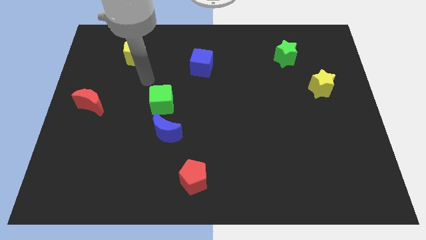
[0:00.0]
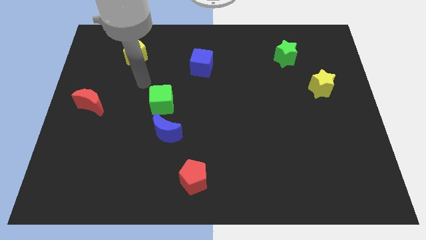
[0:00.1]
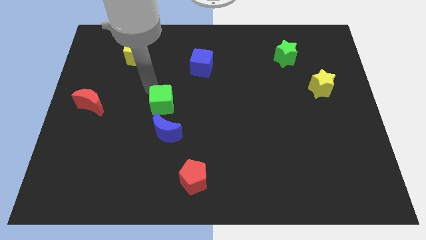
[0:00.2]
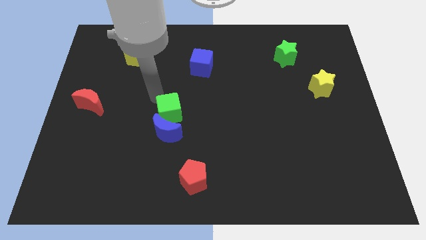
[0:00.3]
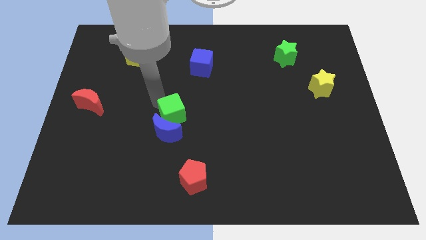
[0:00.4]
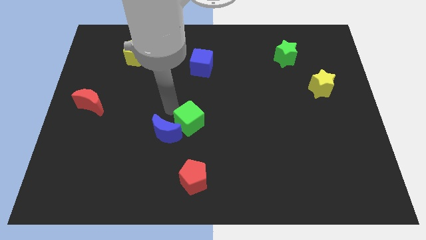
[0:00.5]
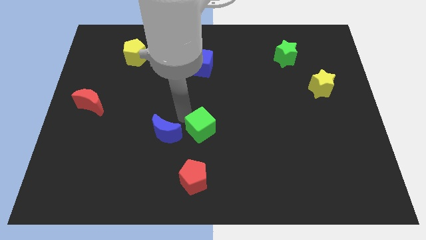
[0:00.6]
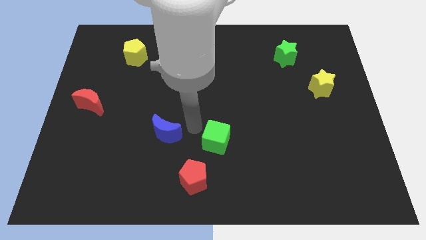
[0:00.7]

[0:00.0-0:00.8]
pull the blue moon apart from the green cube

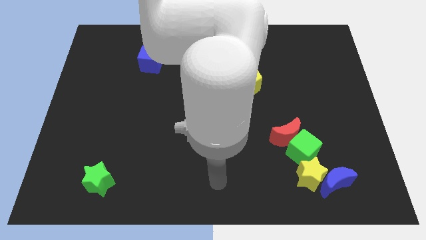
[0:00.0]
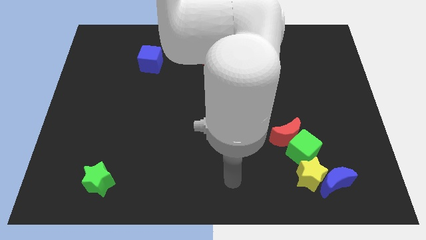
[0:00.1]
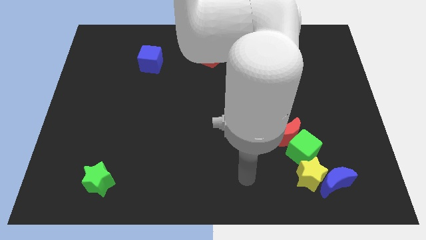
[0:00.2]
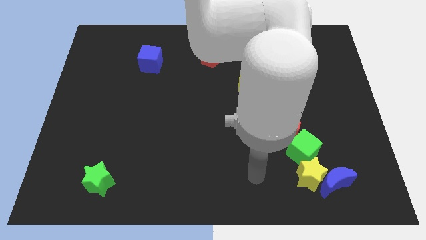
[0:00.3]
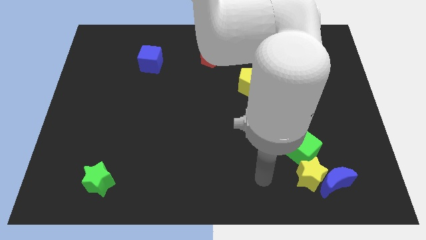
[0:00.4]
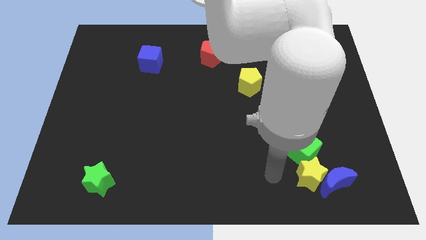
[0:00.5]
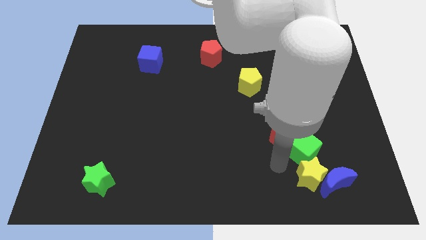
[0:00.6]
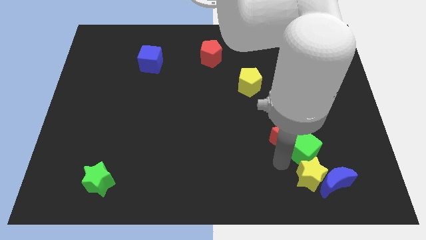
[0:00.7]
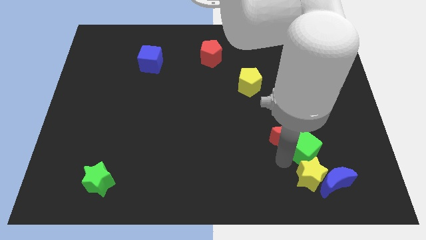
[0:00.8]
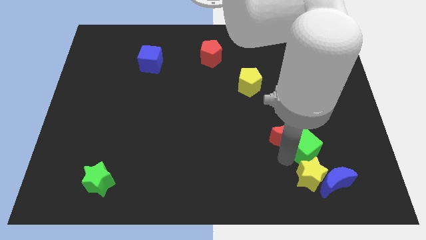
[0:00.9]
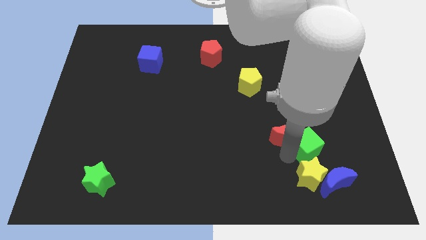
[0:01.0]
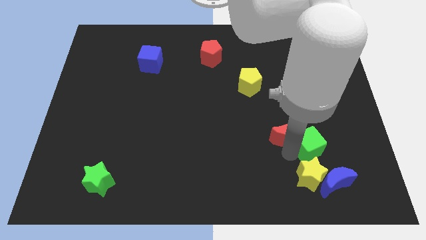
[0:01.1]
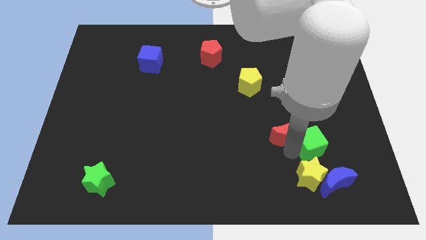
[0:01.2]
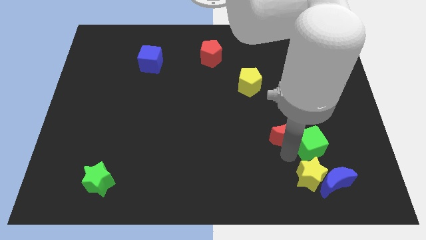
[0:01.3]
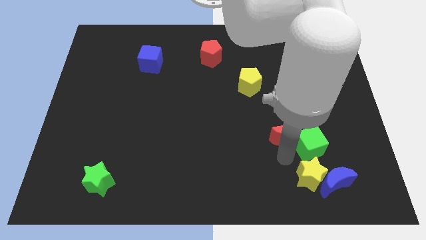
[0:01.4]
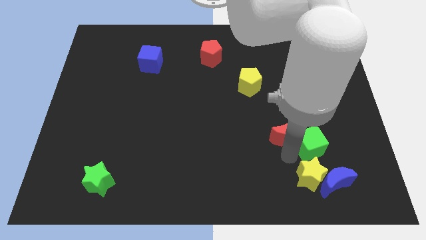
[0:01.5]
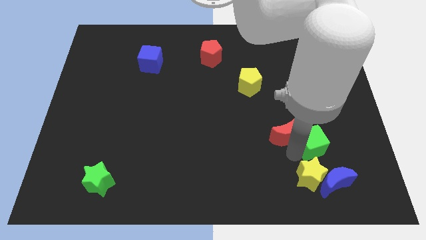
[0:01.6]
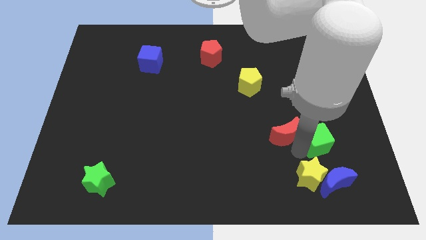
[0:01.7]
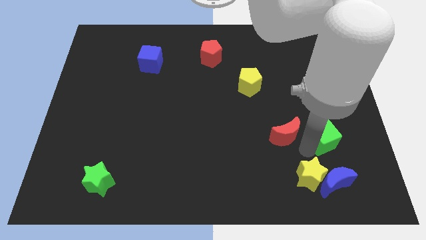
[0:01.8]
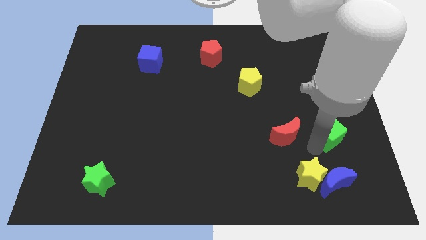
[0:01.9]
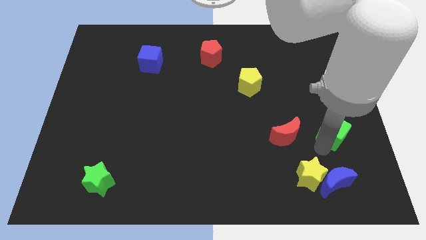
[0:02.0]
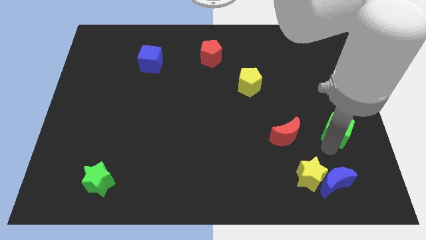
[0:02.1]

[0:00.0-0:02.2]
move the green cube away from the clump

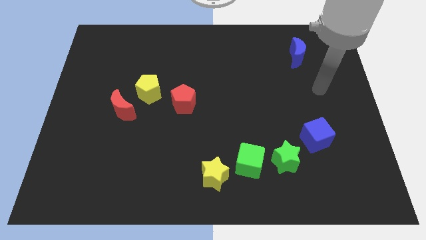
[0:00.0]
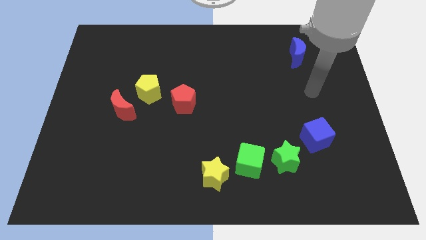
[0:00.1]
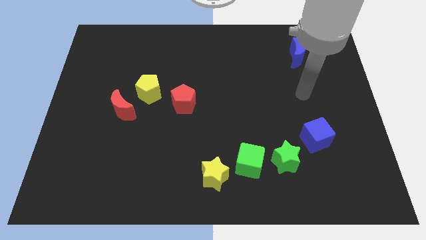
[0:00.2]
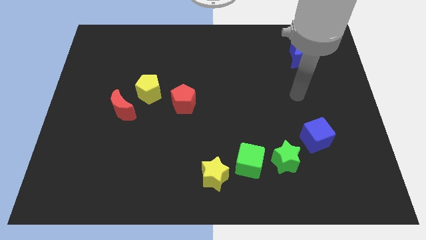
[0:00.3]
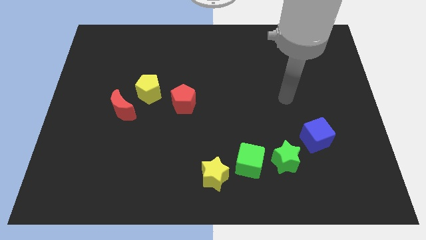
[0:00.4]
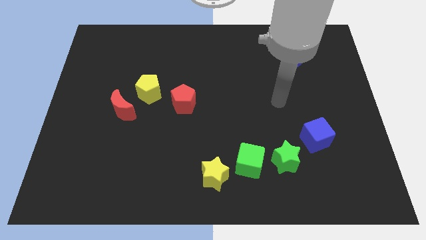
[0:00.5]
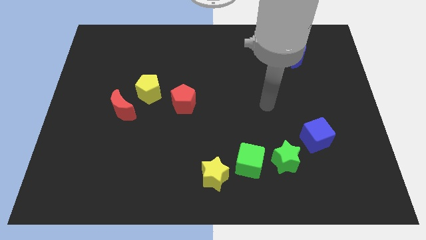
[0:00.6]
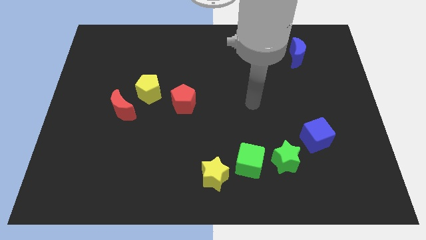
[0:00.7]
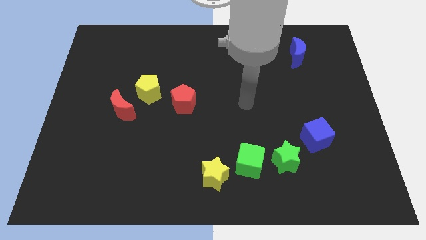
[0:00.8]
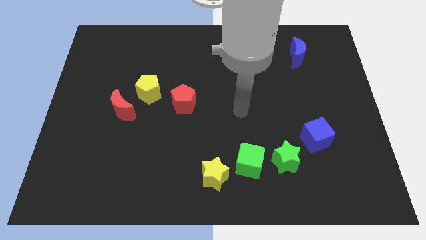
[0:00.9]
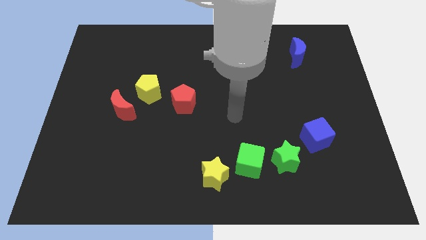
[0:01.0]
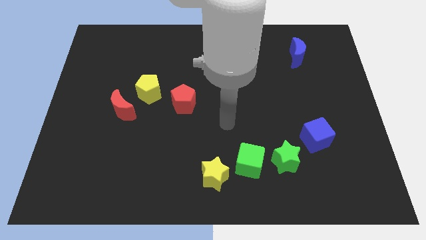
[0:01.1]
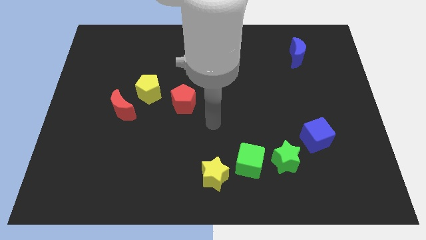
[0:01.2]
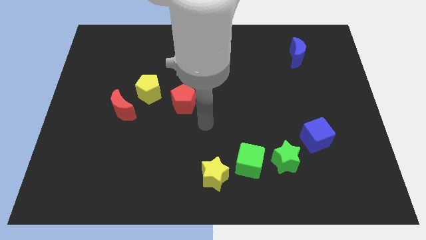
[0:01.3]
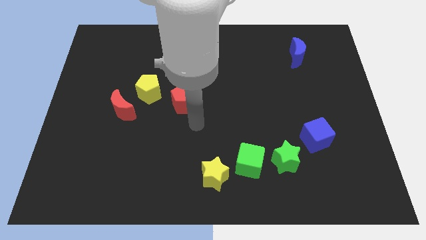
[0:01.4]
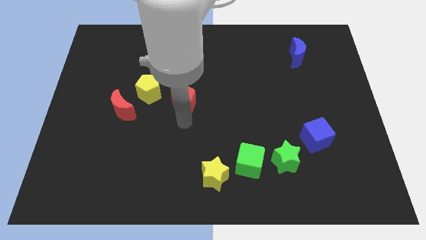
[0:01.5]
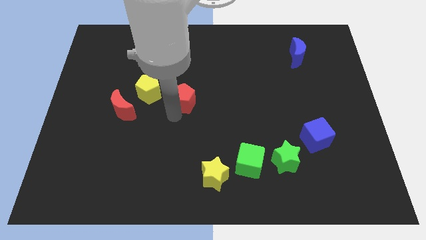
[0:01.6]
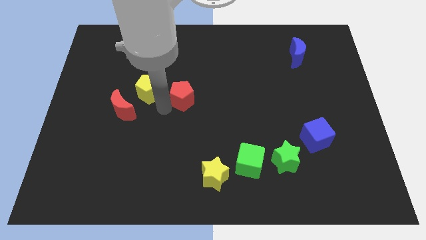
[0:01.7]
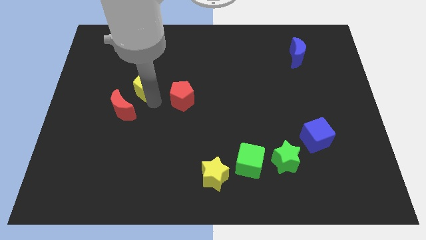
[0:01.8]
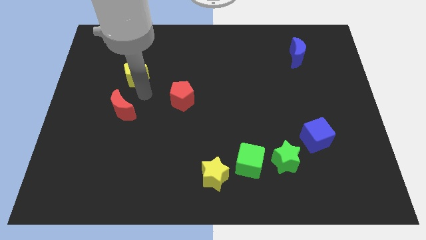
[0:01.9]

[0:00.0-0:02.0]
move the red moon away from the yellow pentagon

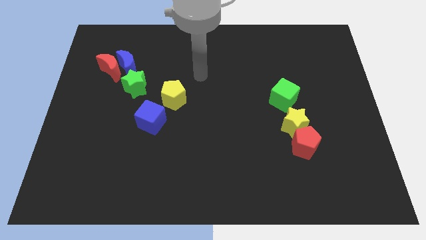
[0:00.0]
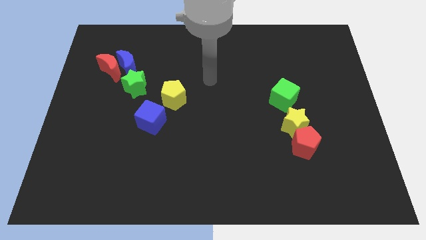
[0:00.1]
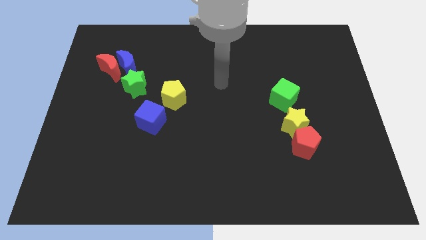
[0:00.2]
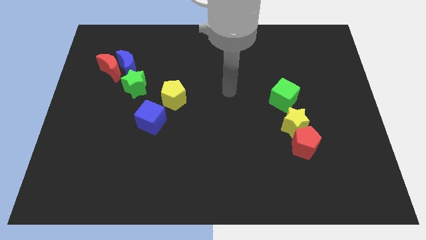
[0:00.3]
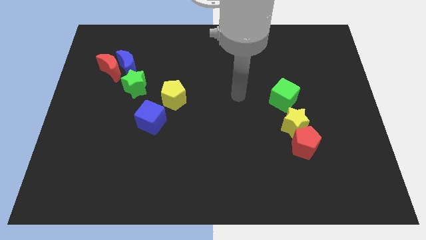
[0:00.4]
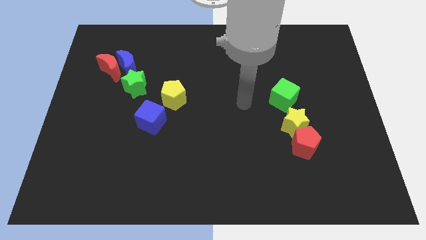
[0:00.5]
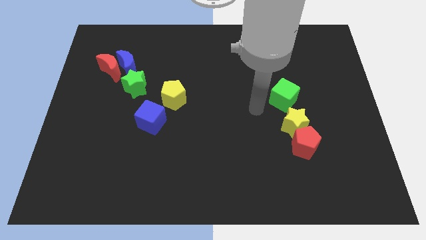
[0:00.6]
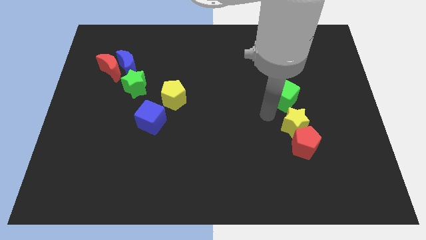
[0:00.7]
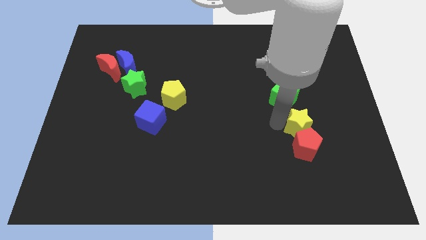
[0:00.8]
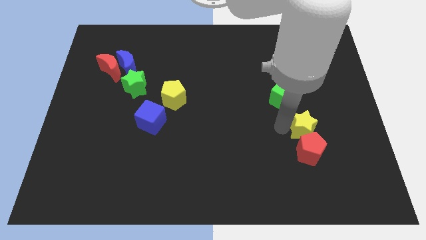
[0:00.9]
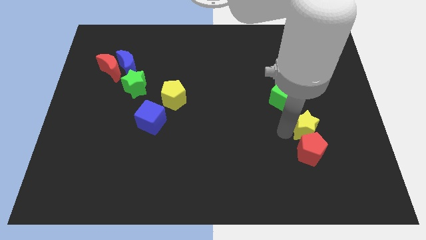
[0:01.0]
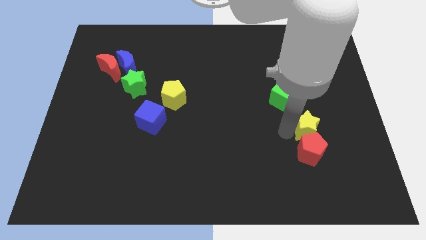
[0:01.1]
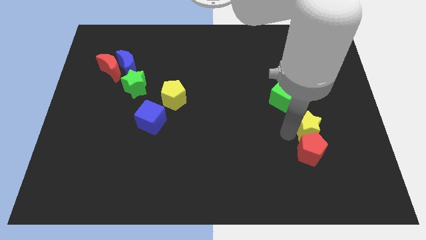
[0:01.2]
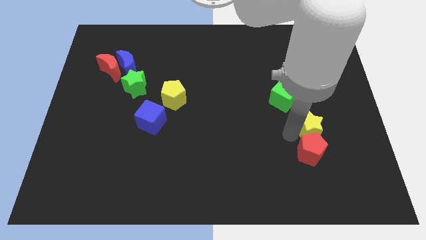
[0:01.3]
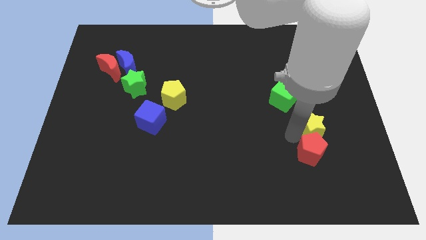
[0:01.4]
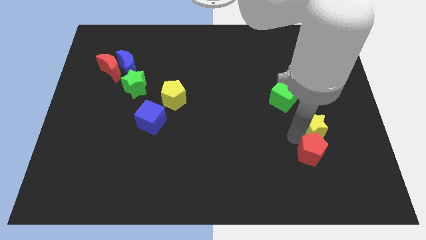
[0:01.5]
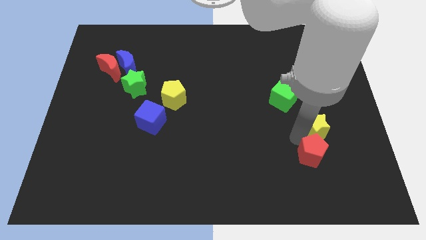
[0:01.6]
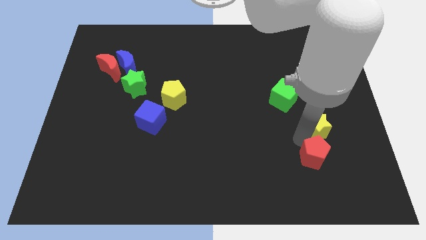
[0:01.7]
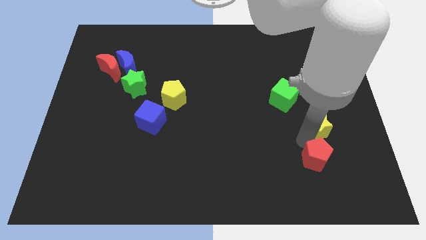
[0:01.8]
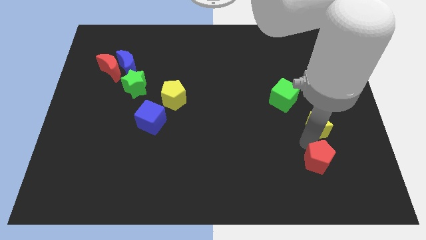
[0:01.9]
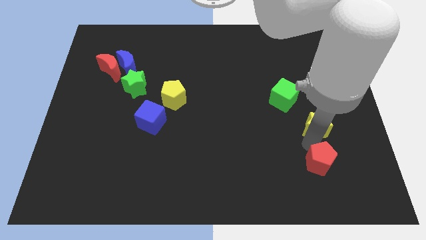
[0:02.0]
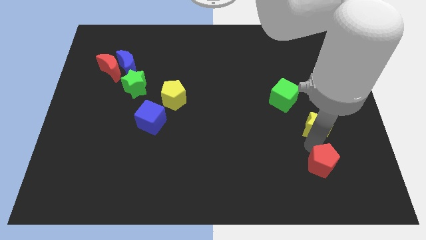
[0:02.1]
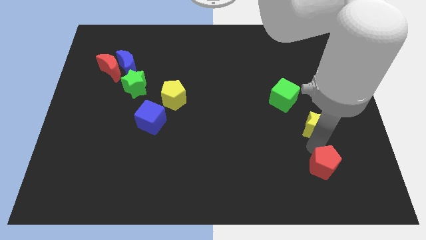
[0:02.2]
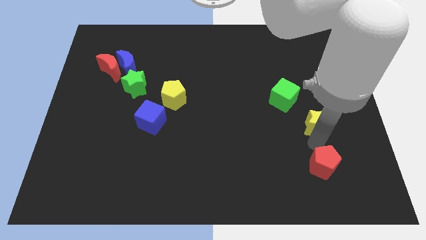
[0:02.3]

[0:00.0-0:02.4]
separate the red pentagon from the yellow star

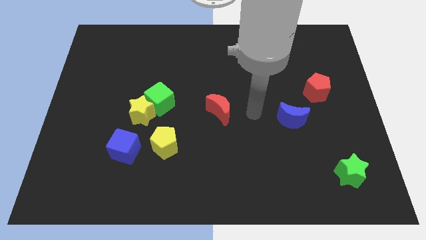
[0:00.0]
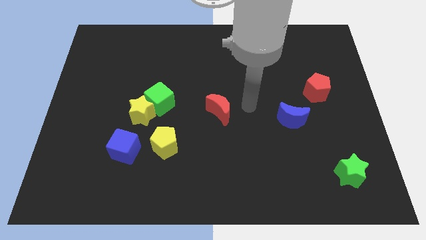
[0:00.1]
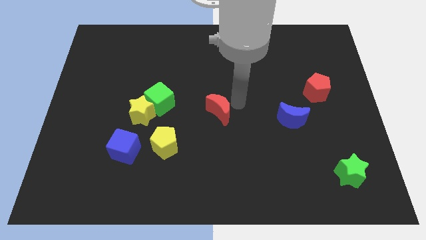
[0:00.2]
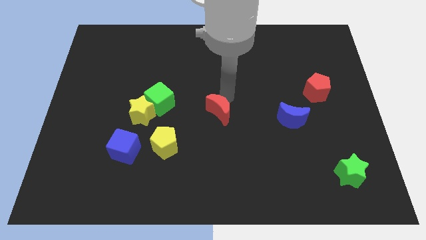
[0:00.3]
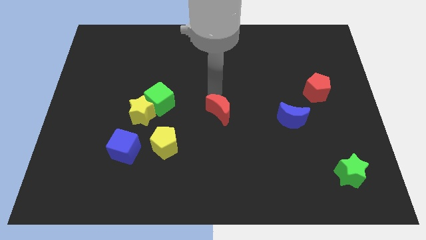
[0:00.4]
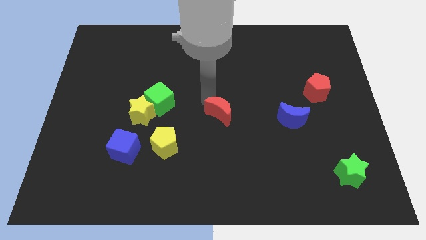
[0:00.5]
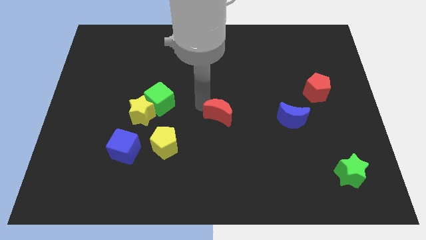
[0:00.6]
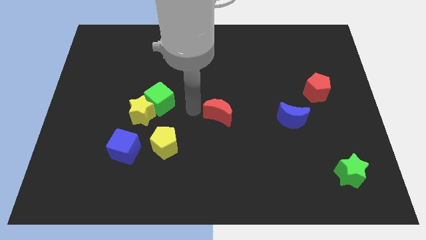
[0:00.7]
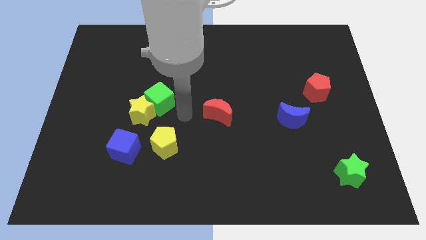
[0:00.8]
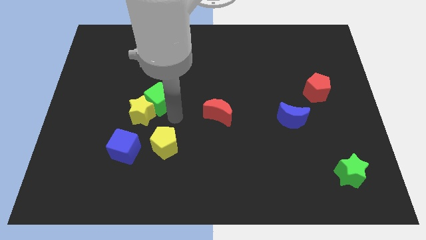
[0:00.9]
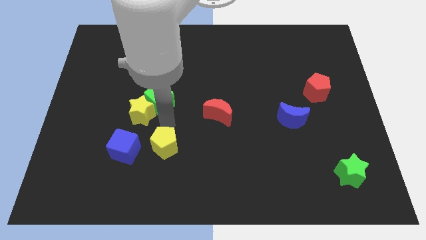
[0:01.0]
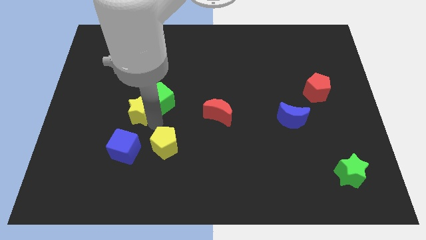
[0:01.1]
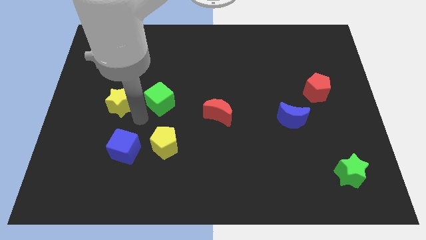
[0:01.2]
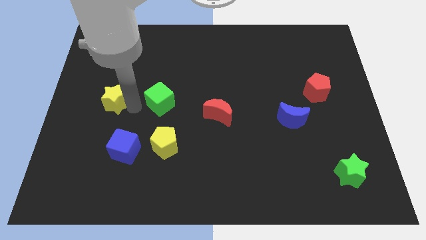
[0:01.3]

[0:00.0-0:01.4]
move the green cube away from the yellow star

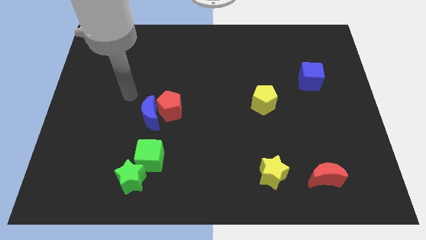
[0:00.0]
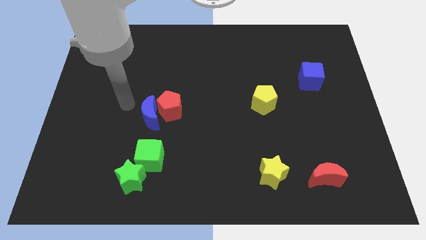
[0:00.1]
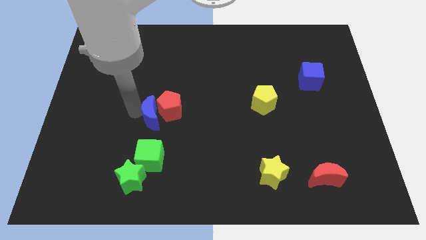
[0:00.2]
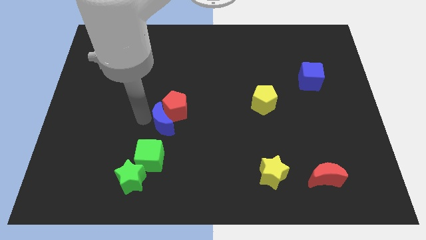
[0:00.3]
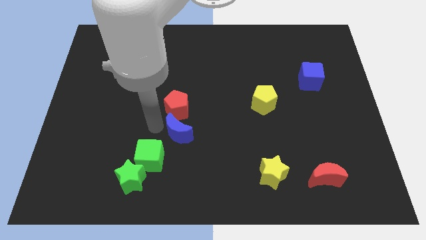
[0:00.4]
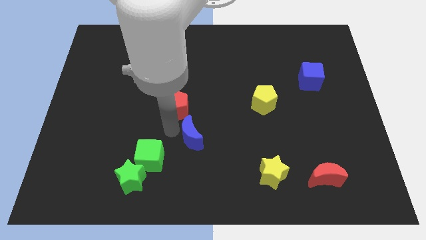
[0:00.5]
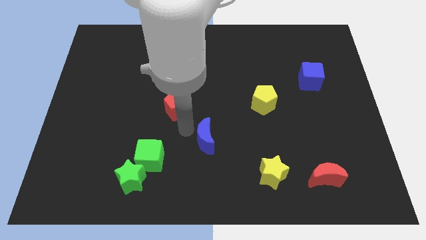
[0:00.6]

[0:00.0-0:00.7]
move the red pentagon away from the blue moon
